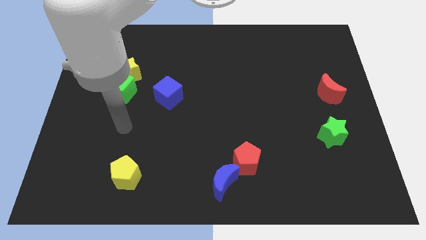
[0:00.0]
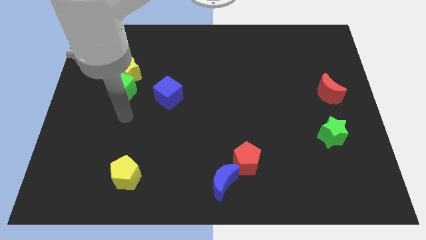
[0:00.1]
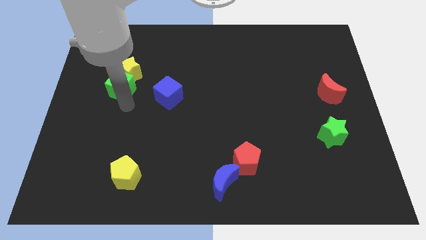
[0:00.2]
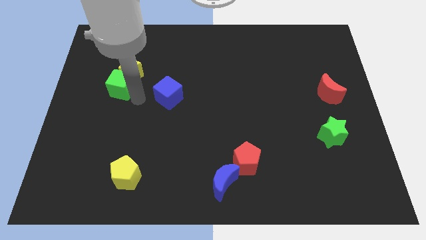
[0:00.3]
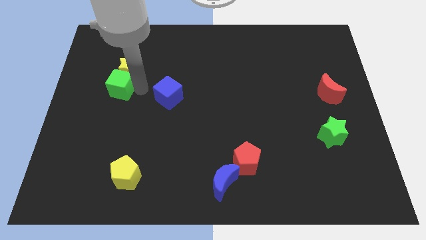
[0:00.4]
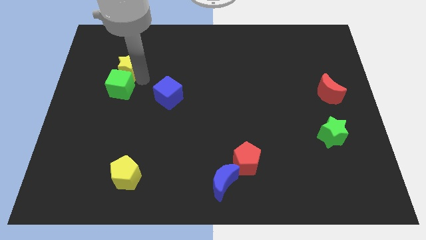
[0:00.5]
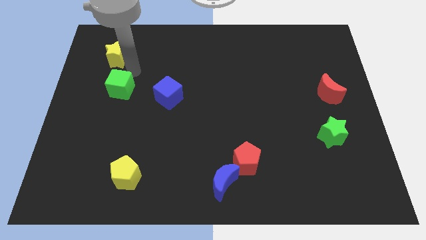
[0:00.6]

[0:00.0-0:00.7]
move the green cube away from the yellow star

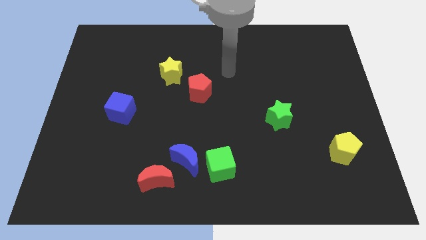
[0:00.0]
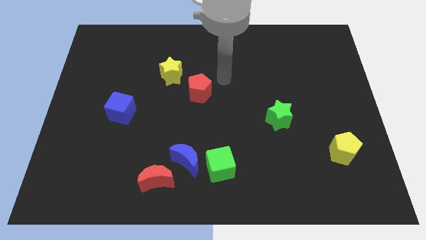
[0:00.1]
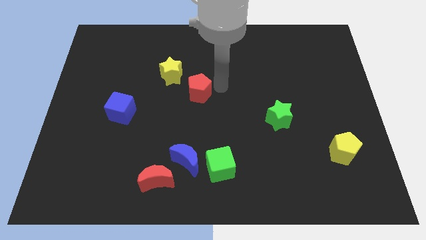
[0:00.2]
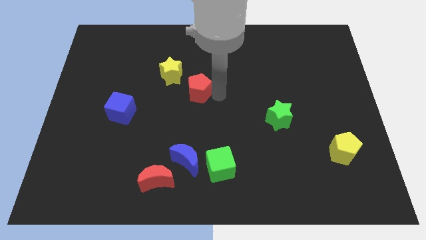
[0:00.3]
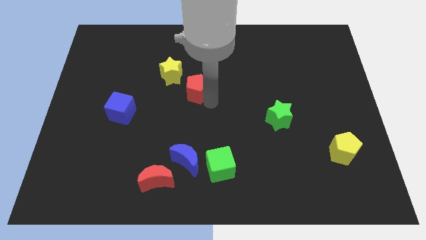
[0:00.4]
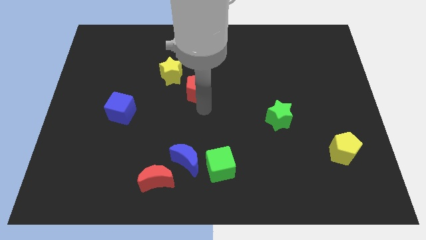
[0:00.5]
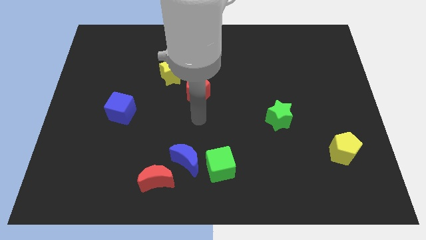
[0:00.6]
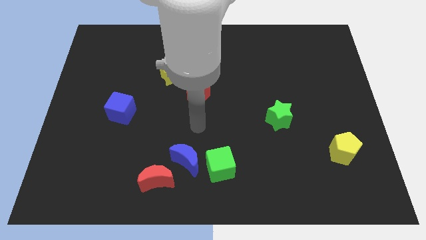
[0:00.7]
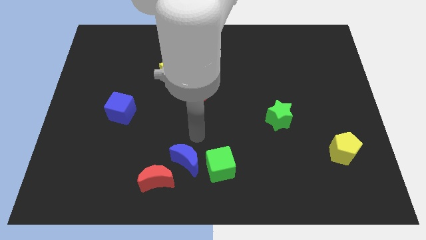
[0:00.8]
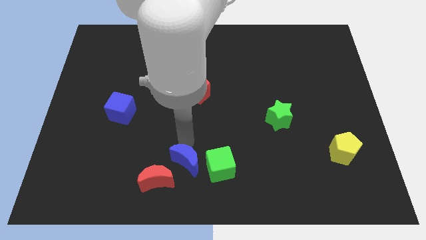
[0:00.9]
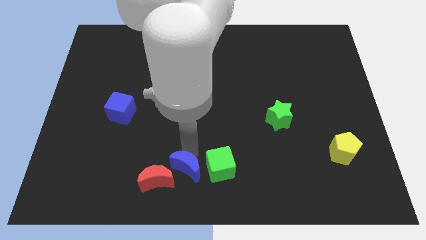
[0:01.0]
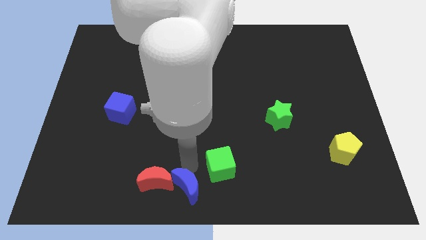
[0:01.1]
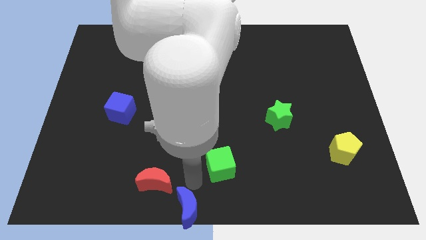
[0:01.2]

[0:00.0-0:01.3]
pull the green cube apart from the blue moon

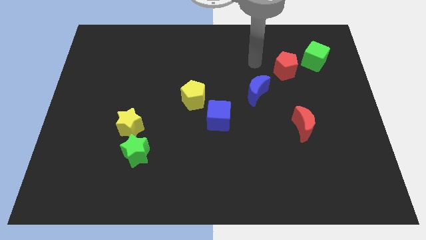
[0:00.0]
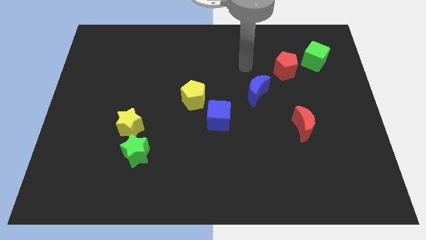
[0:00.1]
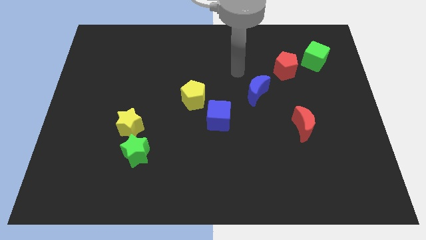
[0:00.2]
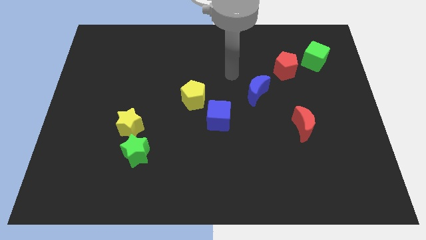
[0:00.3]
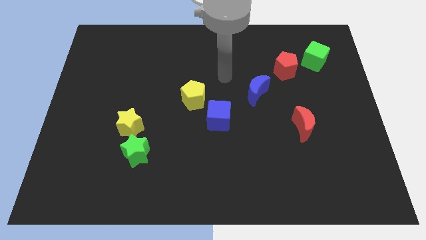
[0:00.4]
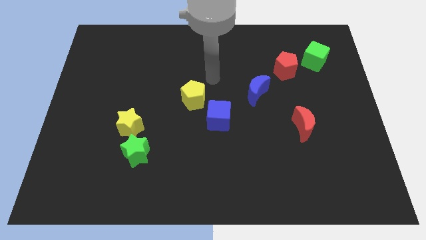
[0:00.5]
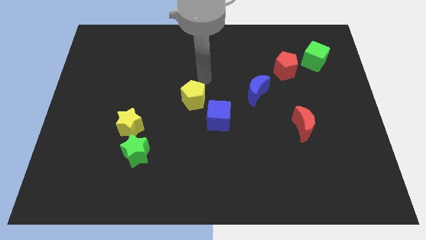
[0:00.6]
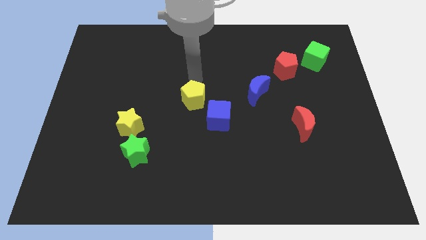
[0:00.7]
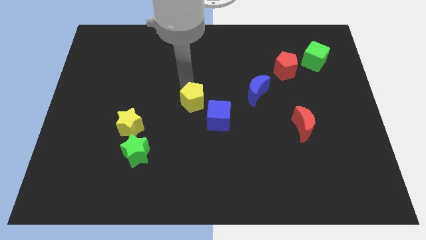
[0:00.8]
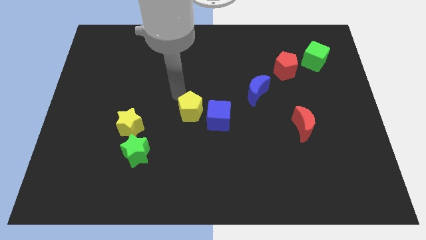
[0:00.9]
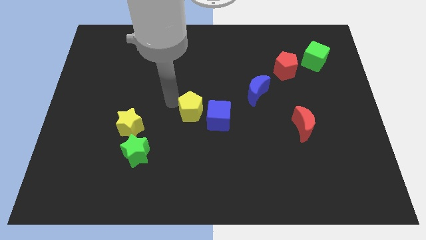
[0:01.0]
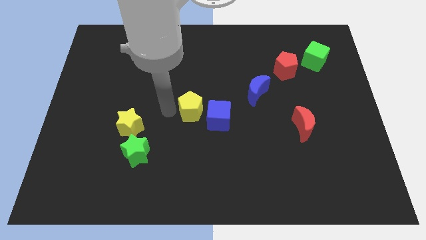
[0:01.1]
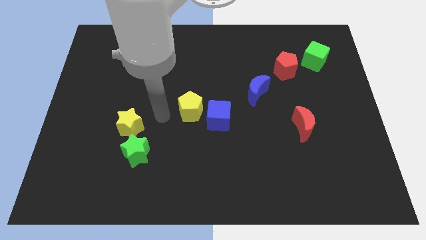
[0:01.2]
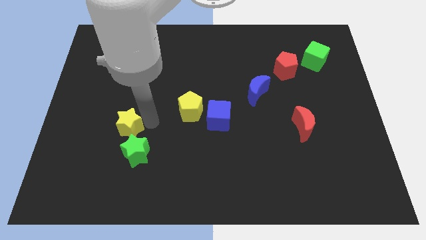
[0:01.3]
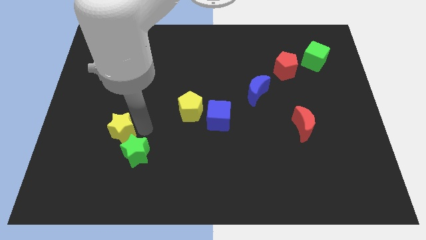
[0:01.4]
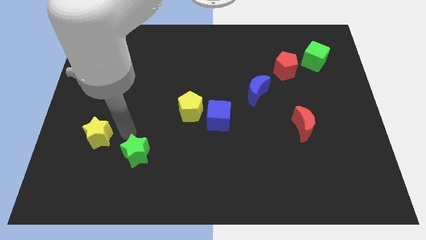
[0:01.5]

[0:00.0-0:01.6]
pull the green star apart from the yellow star

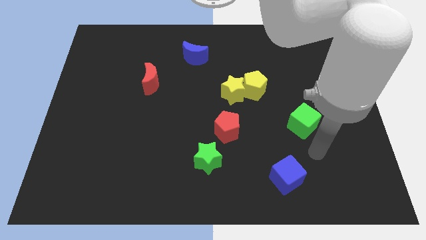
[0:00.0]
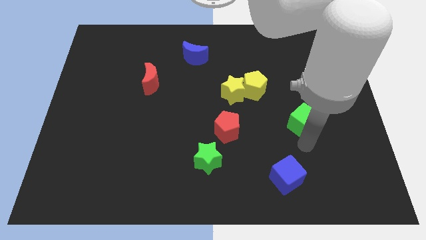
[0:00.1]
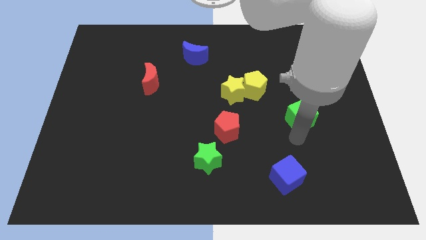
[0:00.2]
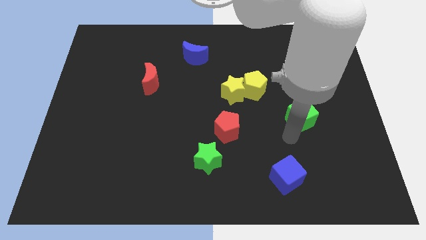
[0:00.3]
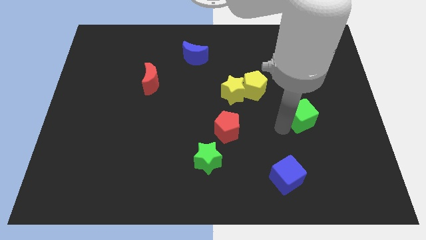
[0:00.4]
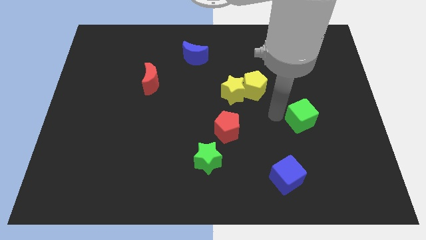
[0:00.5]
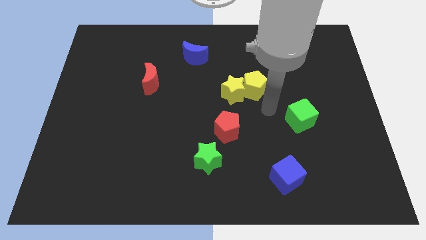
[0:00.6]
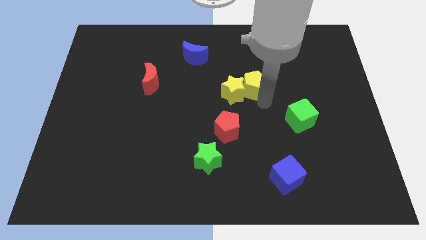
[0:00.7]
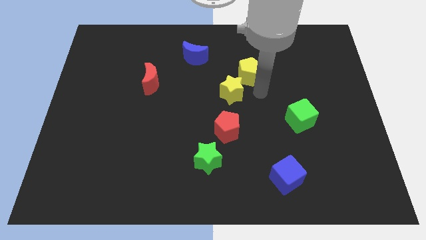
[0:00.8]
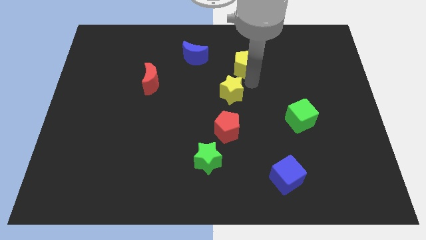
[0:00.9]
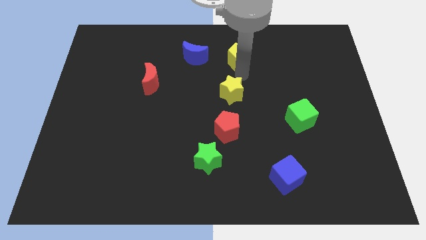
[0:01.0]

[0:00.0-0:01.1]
separate the yellow star from the yellow pentagon

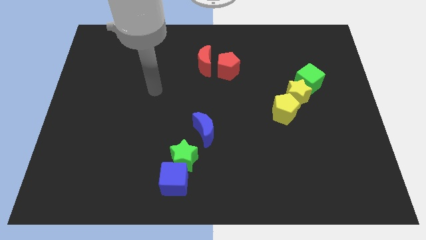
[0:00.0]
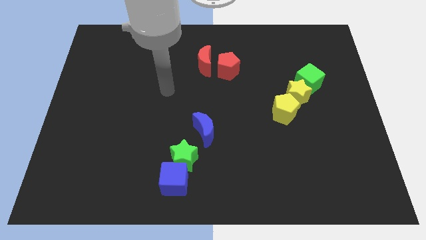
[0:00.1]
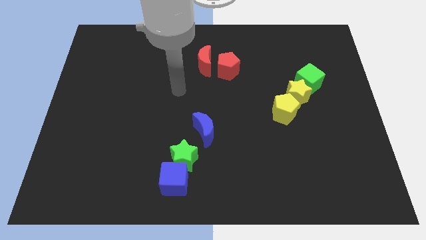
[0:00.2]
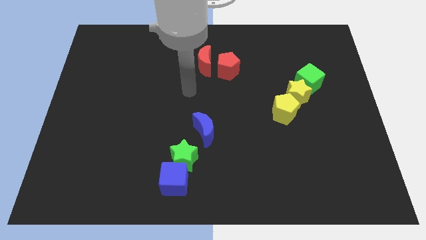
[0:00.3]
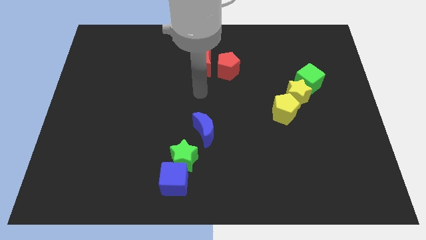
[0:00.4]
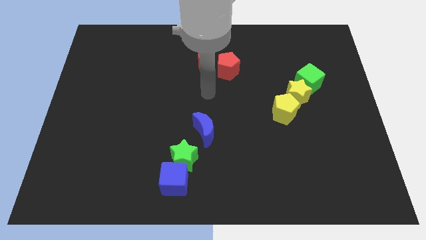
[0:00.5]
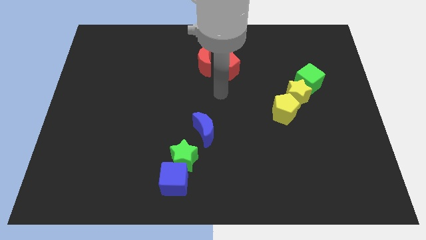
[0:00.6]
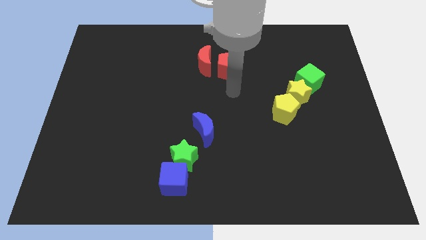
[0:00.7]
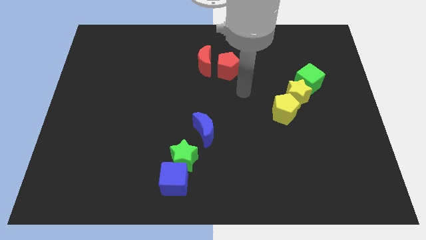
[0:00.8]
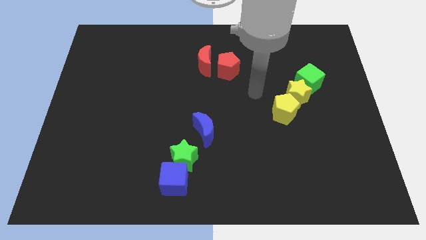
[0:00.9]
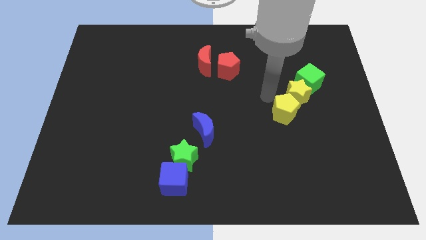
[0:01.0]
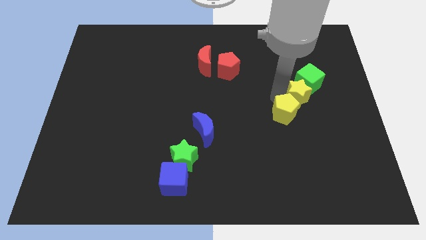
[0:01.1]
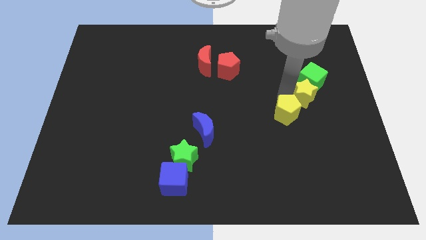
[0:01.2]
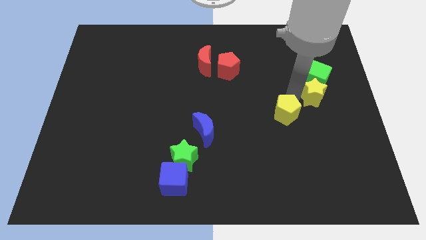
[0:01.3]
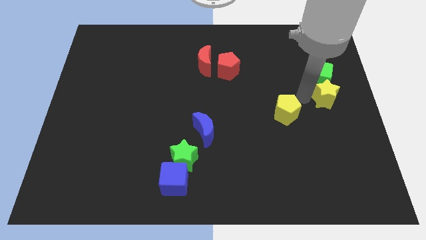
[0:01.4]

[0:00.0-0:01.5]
pull the yellow pentagon apart from the yellow star

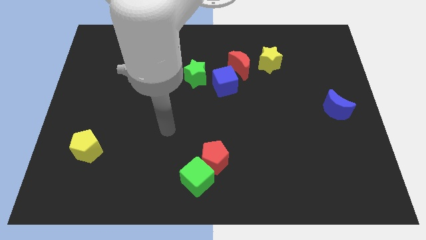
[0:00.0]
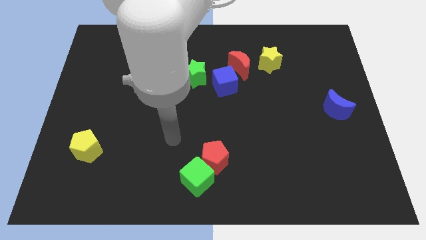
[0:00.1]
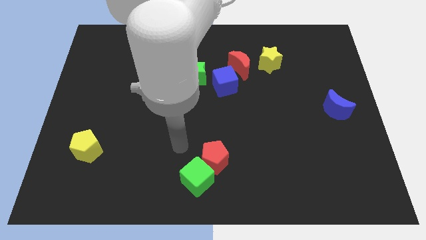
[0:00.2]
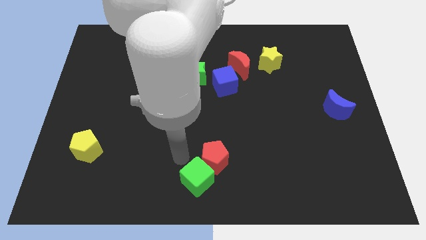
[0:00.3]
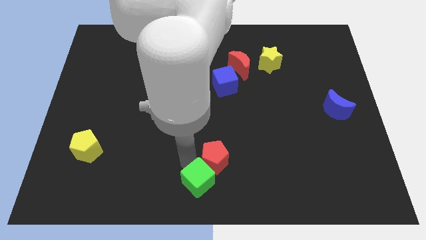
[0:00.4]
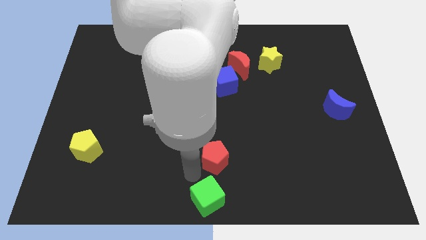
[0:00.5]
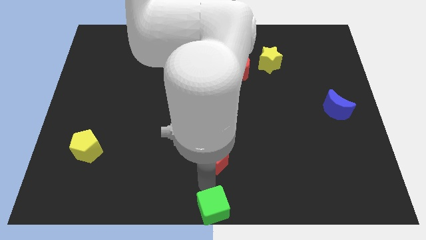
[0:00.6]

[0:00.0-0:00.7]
separate the red pentagon from the green cube

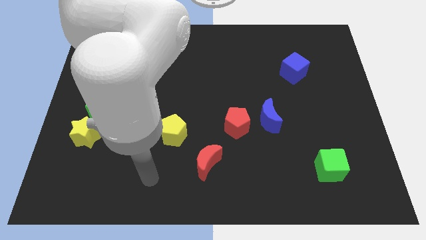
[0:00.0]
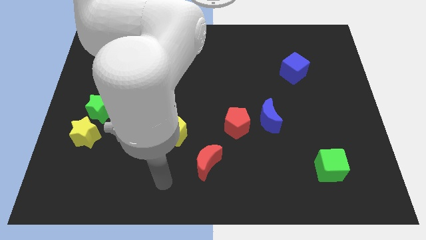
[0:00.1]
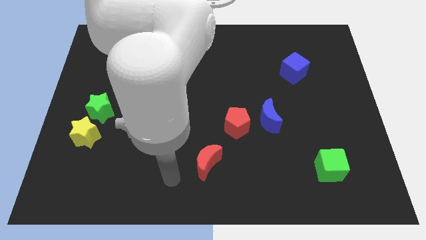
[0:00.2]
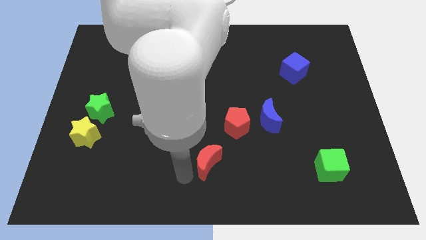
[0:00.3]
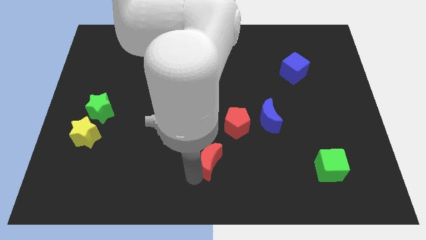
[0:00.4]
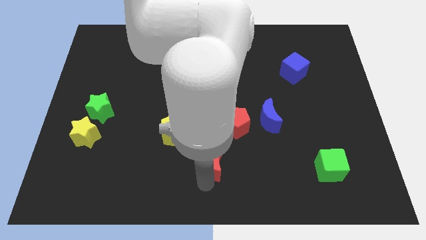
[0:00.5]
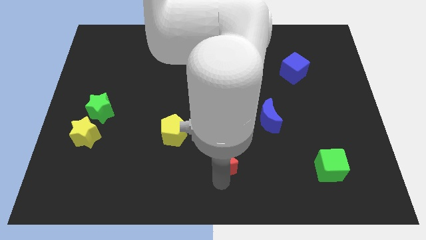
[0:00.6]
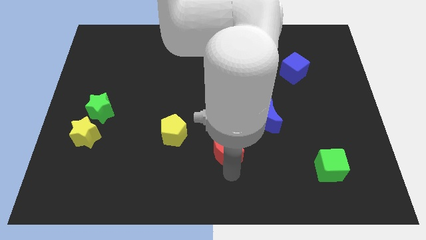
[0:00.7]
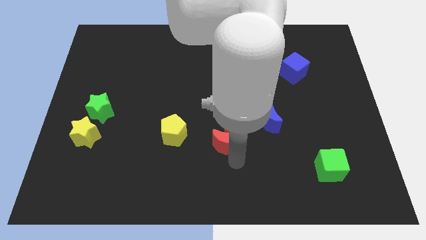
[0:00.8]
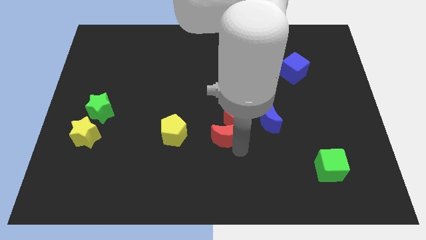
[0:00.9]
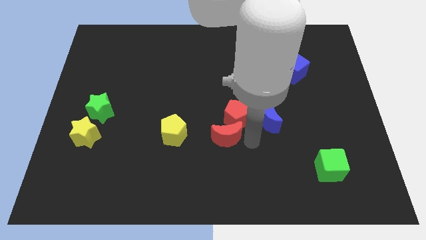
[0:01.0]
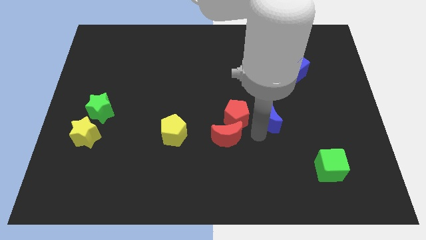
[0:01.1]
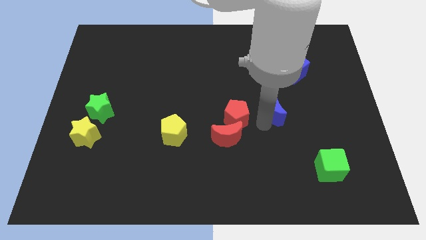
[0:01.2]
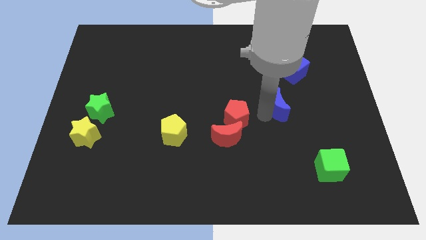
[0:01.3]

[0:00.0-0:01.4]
move the red pentagon away from the blue moon

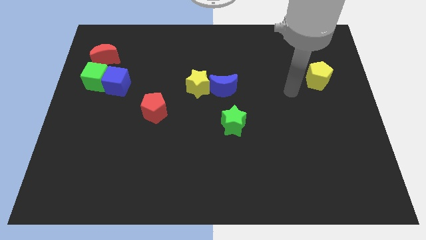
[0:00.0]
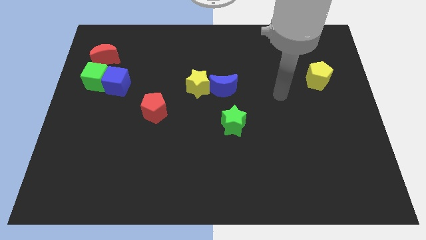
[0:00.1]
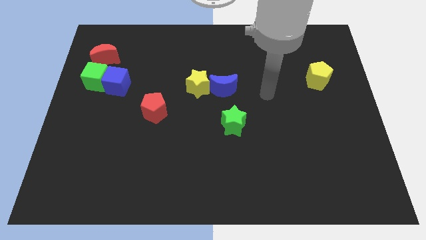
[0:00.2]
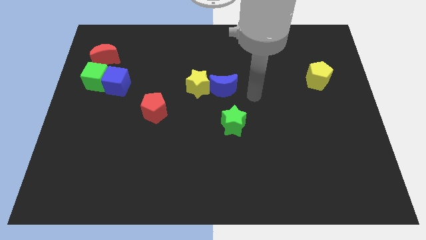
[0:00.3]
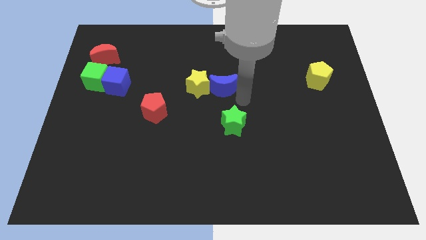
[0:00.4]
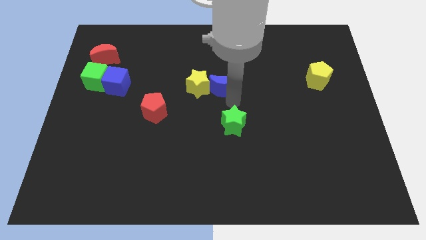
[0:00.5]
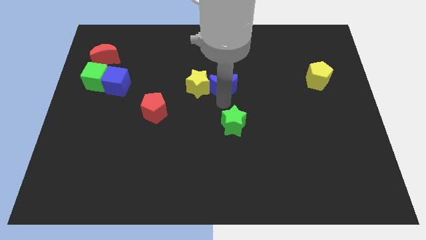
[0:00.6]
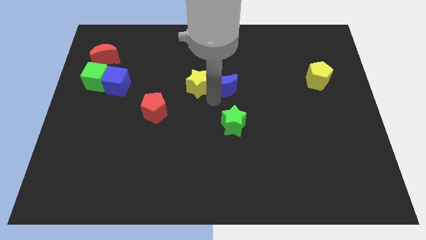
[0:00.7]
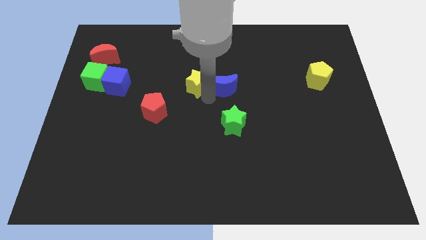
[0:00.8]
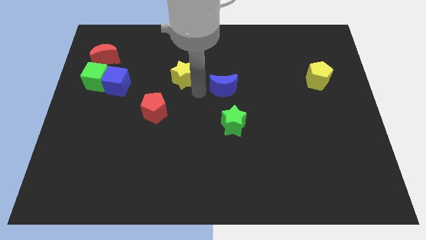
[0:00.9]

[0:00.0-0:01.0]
separate the blue moon from the yellow star

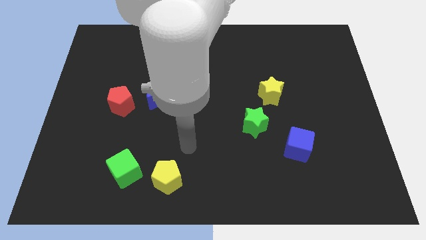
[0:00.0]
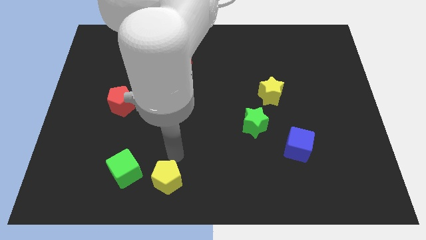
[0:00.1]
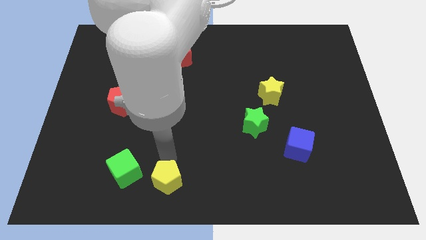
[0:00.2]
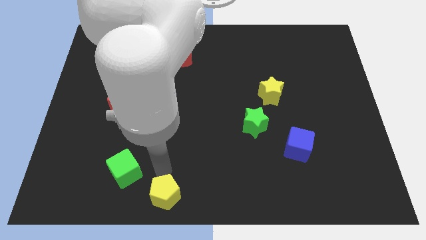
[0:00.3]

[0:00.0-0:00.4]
separate the green cube from the yellow pentagon
